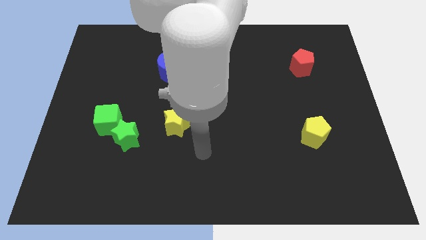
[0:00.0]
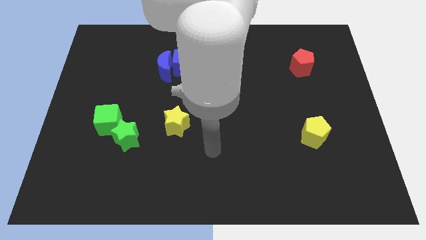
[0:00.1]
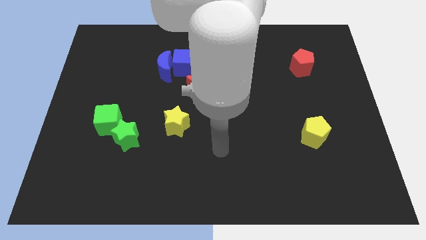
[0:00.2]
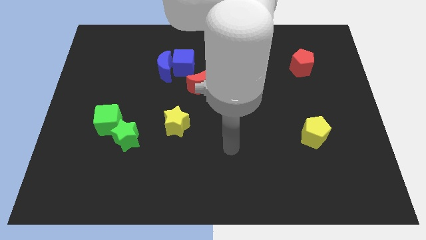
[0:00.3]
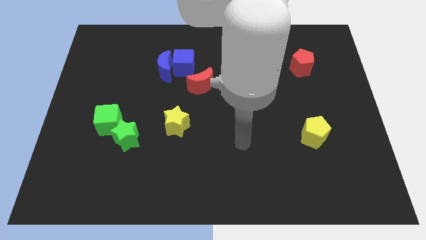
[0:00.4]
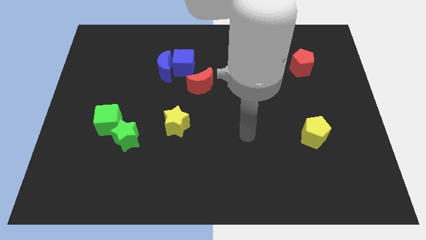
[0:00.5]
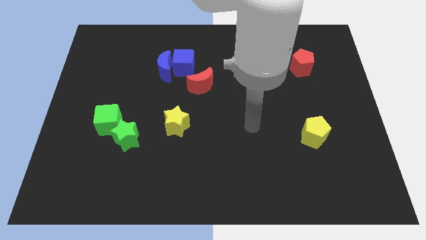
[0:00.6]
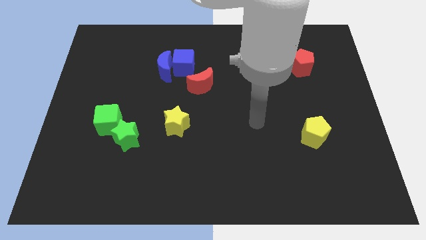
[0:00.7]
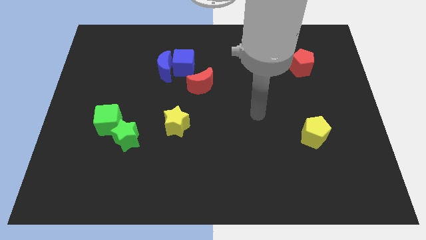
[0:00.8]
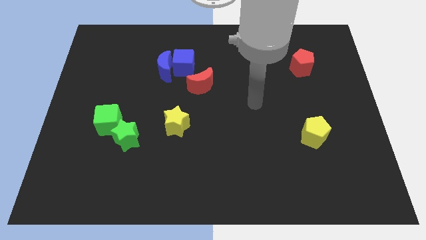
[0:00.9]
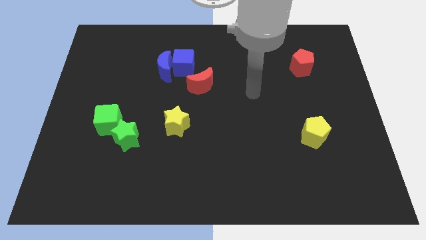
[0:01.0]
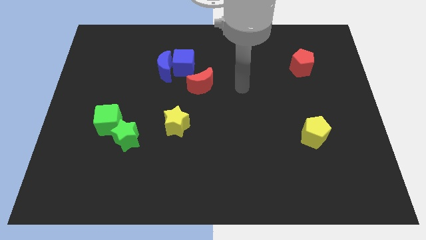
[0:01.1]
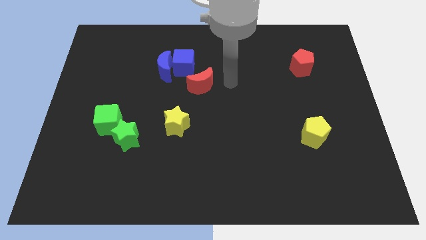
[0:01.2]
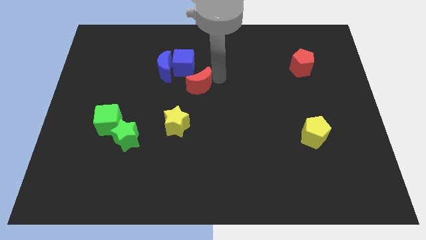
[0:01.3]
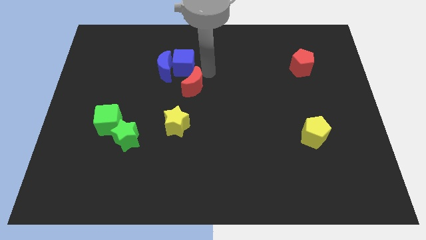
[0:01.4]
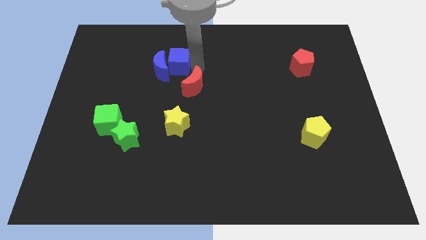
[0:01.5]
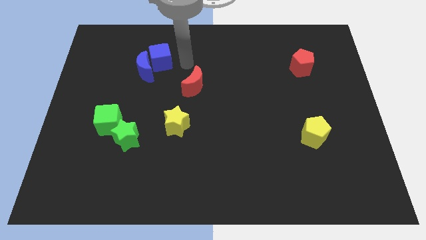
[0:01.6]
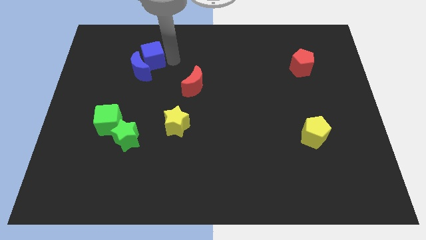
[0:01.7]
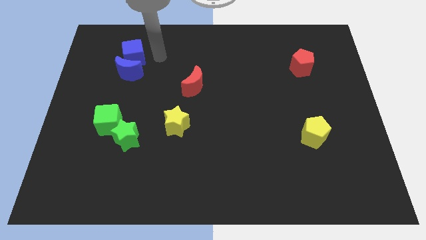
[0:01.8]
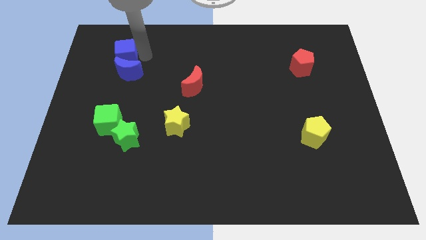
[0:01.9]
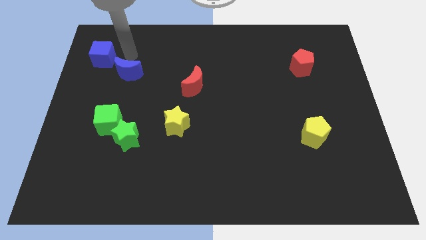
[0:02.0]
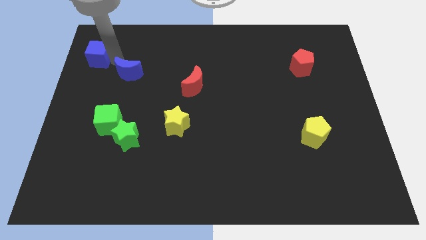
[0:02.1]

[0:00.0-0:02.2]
pull the blue moon apart from the blue cube

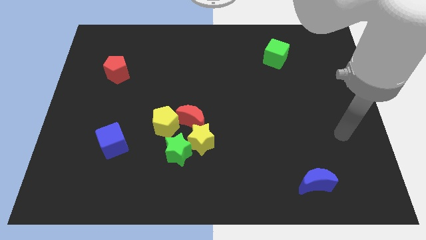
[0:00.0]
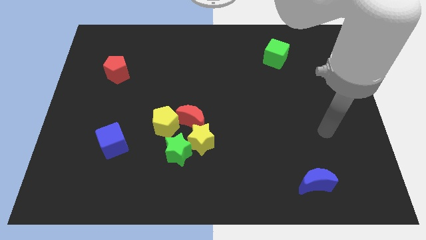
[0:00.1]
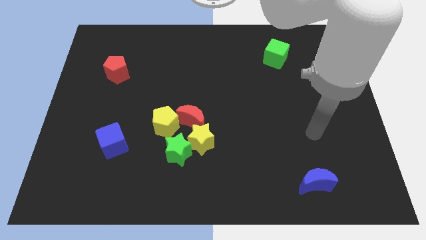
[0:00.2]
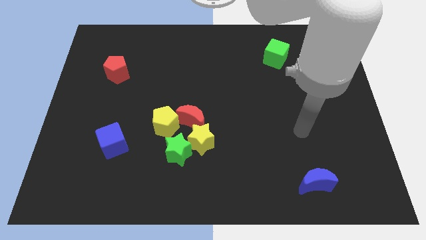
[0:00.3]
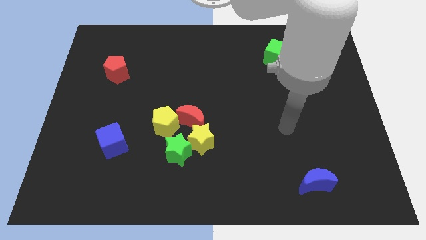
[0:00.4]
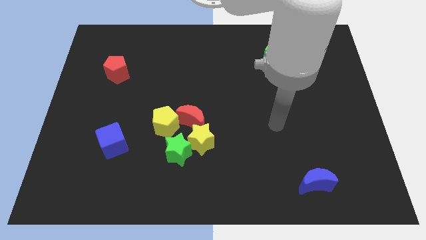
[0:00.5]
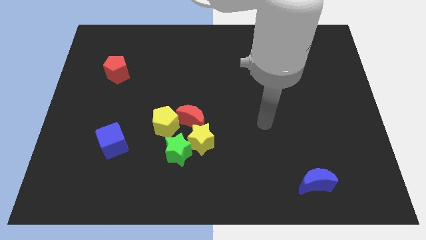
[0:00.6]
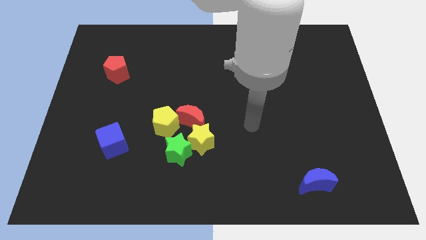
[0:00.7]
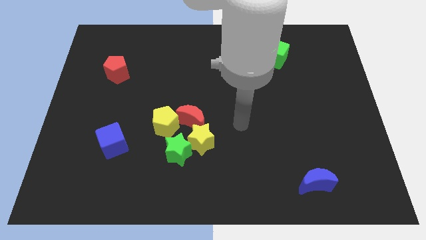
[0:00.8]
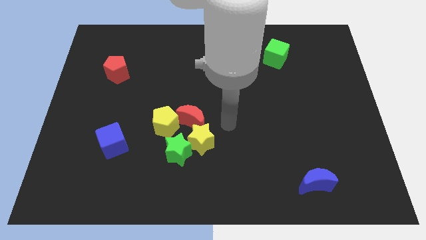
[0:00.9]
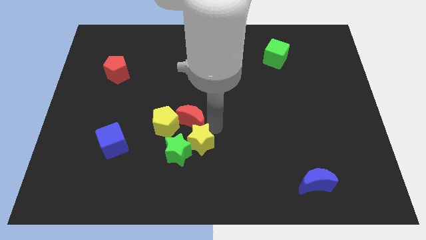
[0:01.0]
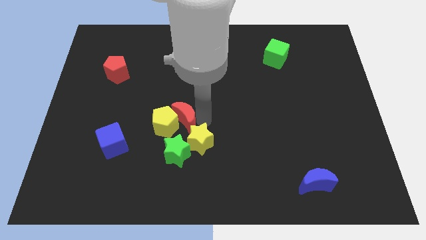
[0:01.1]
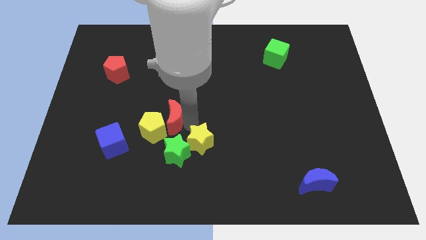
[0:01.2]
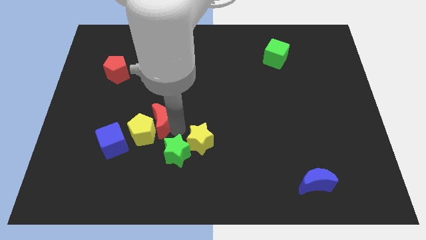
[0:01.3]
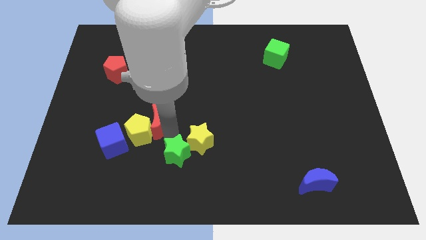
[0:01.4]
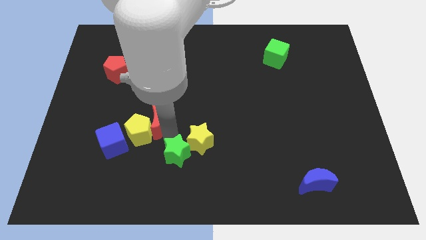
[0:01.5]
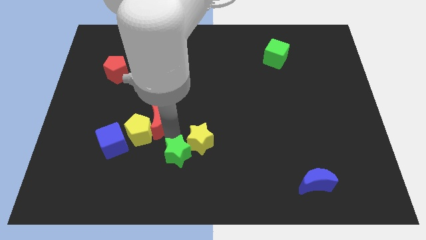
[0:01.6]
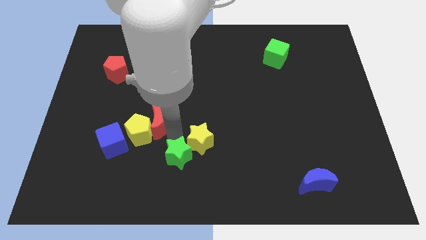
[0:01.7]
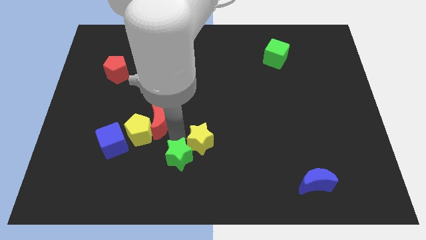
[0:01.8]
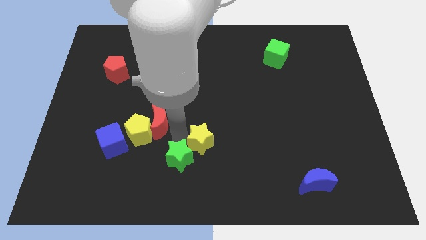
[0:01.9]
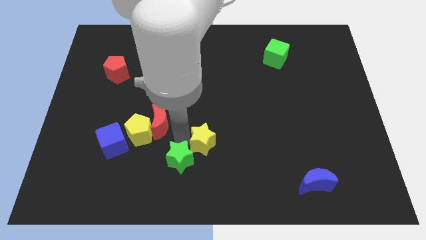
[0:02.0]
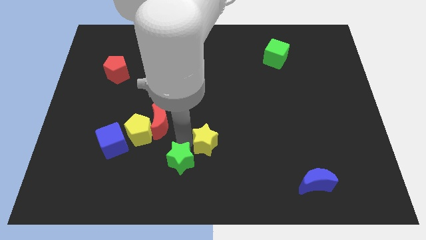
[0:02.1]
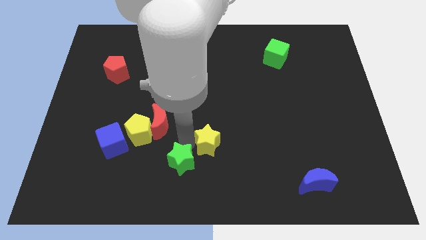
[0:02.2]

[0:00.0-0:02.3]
pull the yellow star apart from the clump

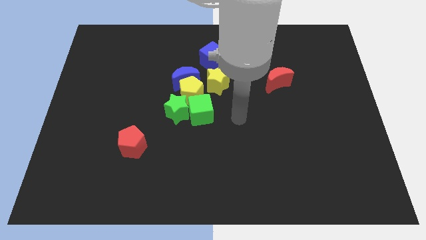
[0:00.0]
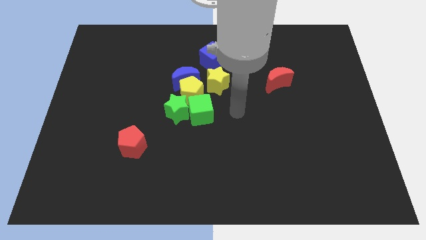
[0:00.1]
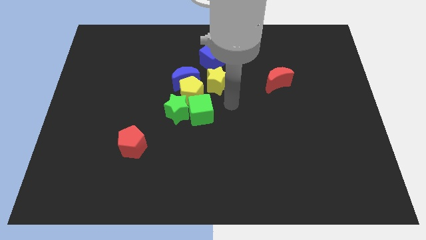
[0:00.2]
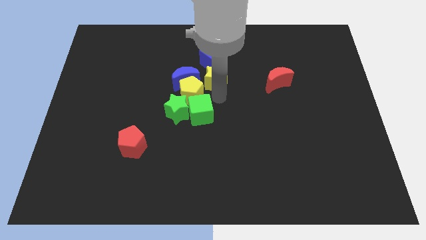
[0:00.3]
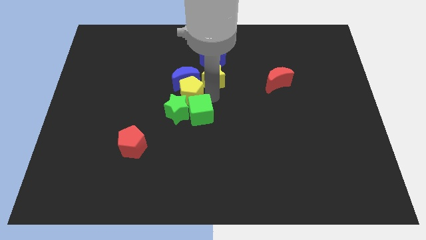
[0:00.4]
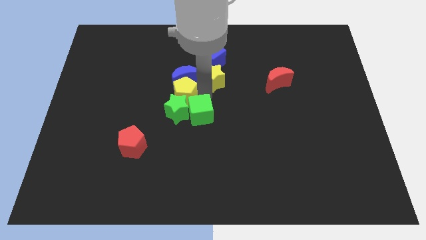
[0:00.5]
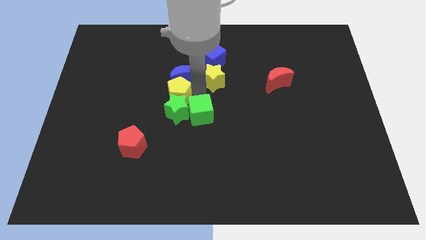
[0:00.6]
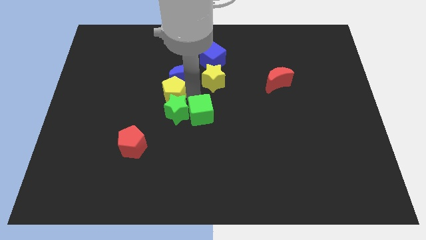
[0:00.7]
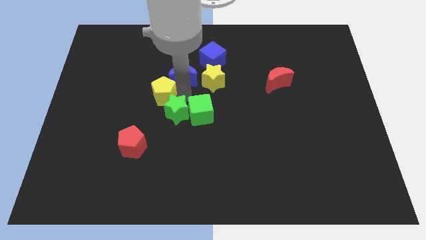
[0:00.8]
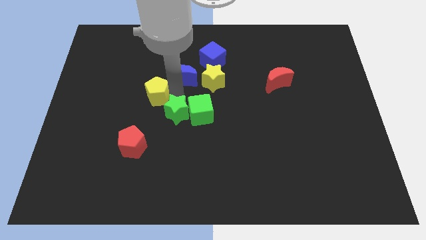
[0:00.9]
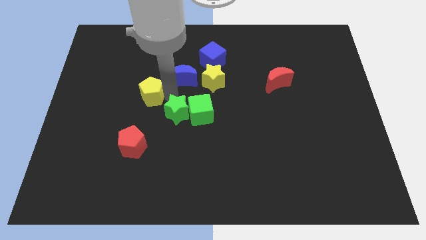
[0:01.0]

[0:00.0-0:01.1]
pull the yellow pentagon apart from the group

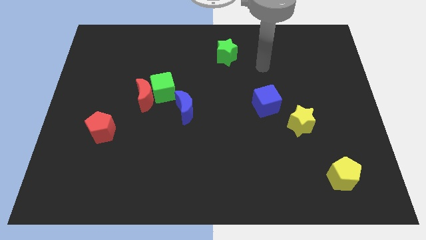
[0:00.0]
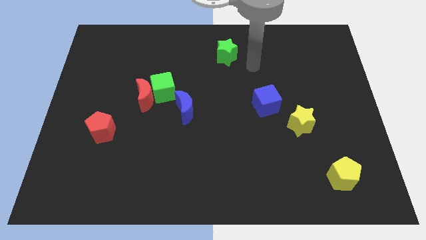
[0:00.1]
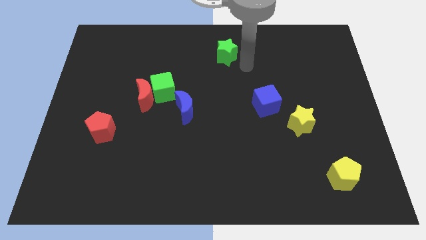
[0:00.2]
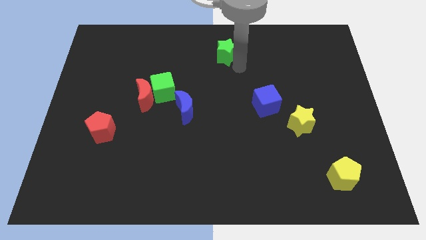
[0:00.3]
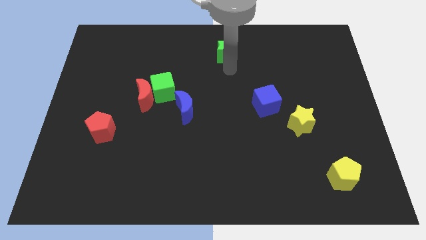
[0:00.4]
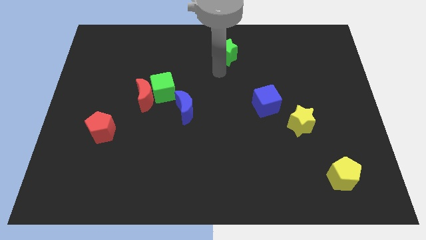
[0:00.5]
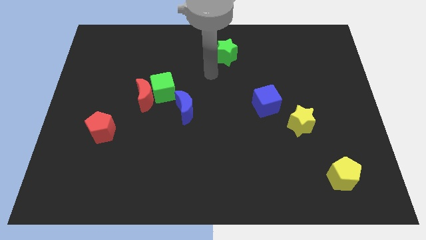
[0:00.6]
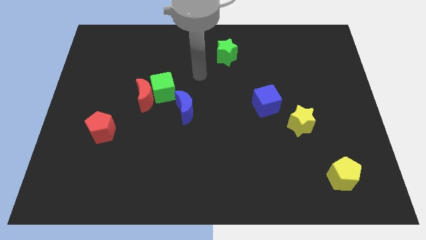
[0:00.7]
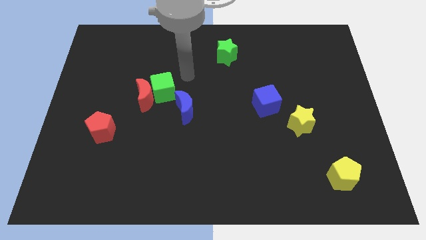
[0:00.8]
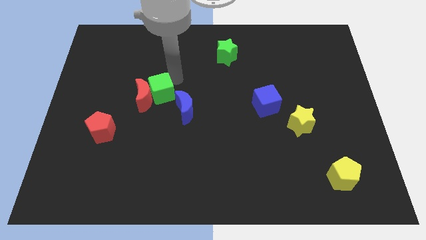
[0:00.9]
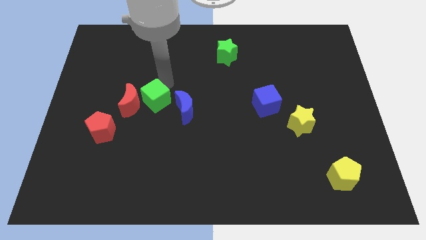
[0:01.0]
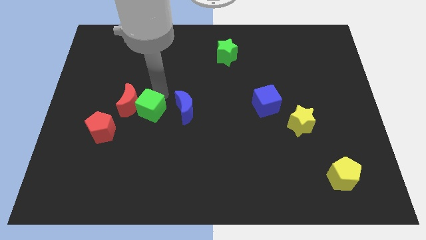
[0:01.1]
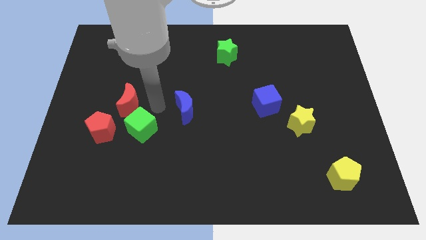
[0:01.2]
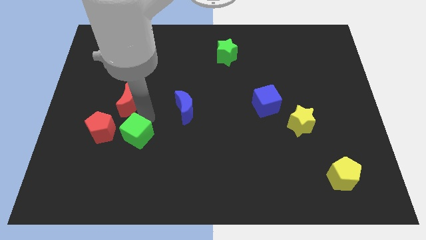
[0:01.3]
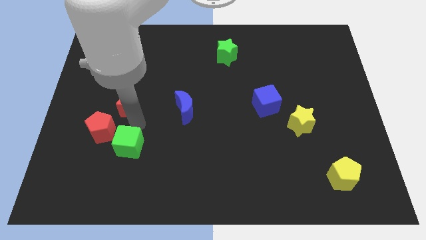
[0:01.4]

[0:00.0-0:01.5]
move the red moon away from the green cube

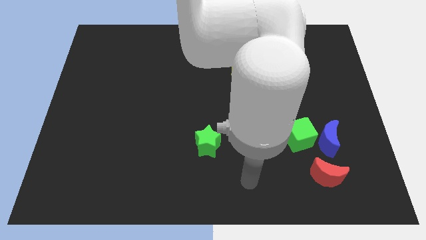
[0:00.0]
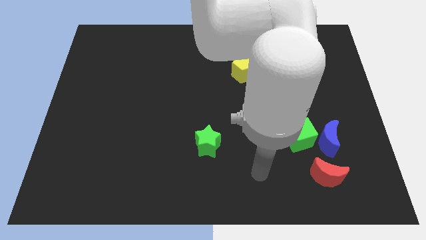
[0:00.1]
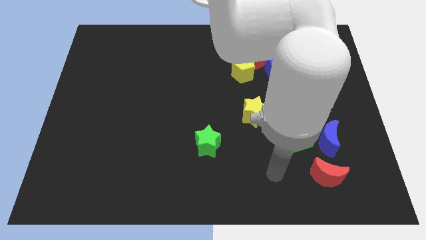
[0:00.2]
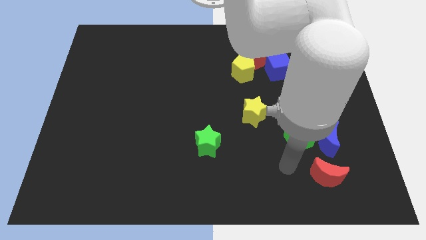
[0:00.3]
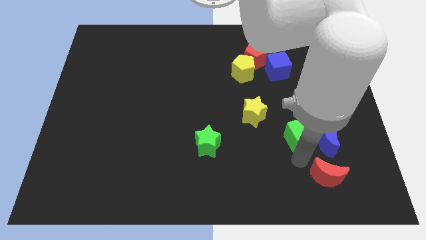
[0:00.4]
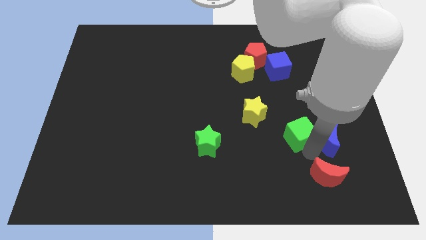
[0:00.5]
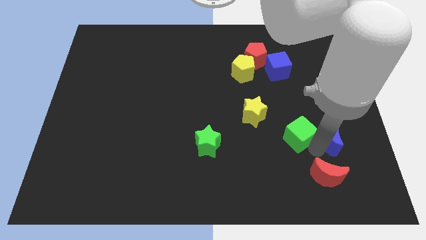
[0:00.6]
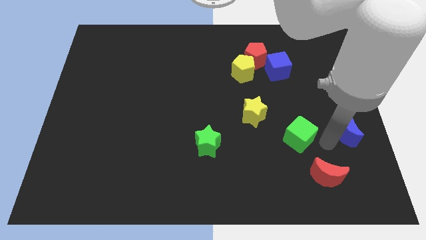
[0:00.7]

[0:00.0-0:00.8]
move the green cube away from the blue moon

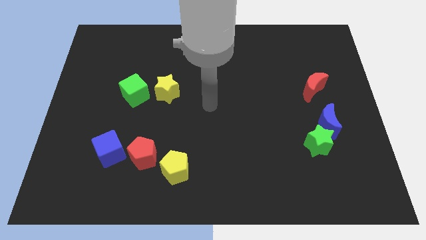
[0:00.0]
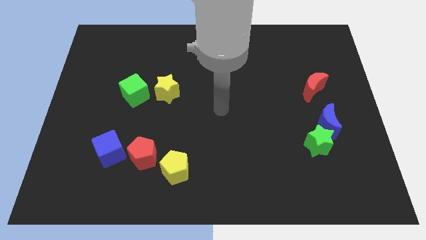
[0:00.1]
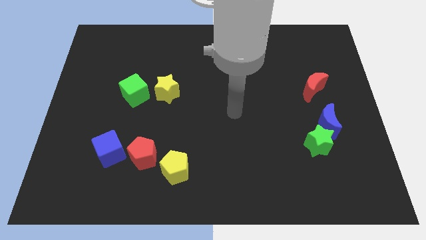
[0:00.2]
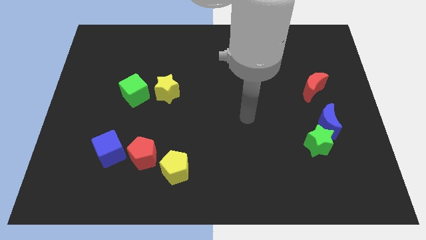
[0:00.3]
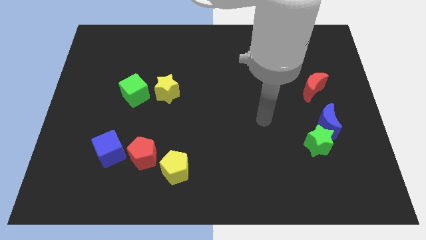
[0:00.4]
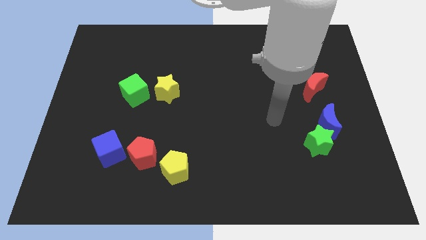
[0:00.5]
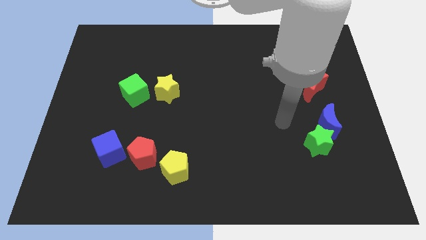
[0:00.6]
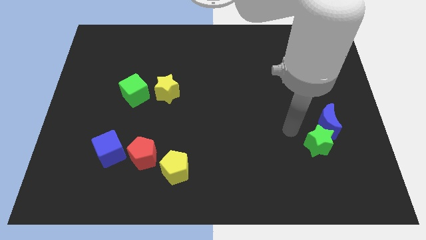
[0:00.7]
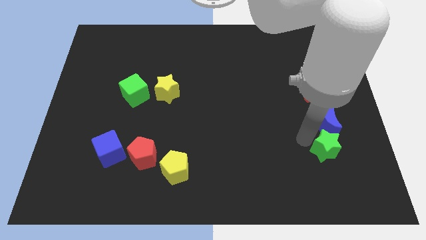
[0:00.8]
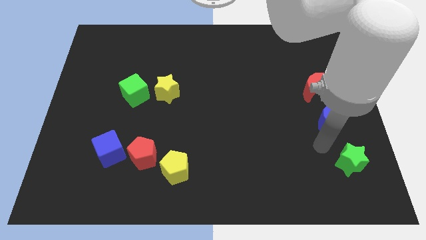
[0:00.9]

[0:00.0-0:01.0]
separate the blue moon from the green star

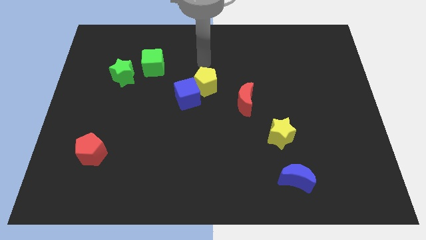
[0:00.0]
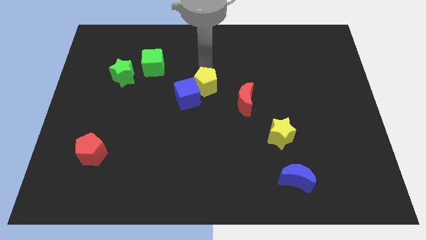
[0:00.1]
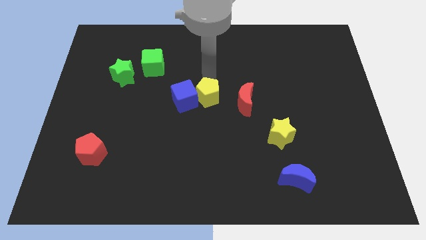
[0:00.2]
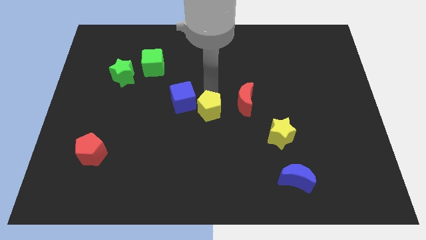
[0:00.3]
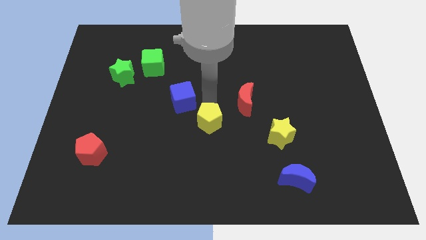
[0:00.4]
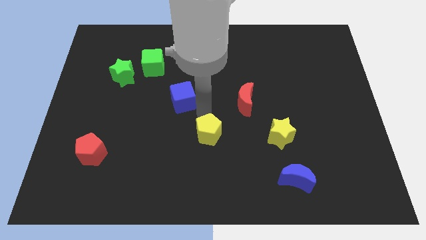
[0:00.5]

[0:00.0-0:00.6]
separate the blue cube from the yellow pentagon

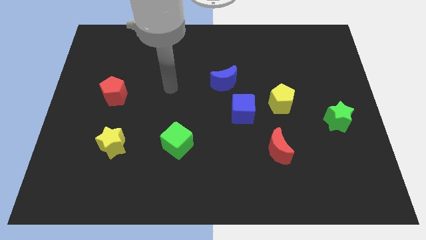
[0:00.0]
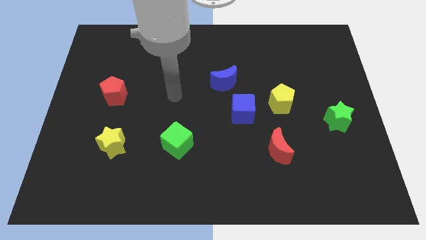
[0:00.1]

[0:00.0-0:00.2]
move the yellow pentagon away from the blue cube
